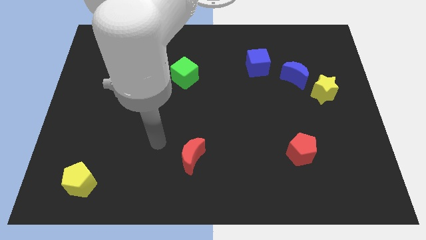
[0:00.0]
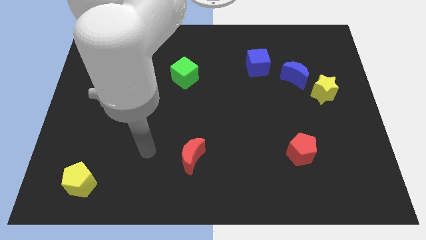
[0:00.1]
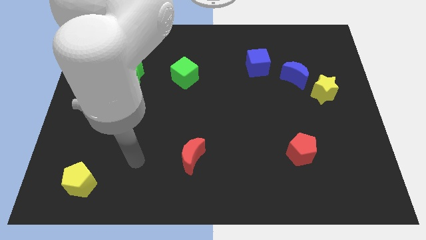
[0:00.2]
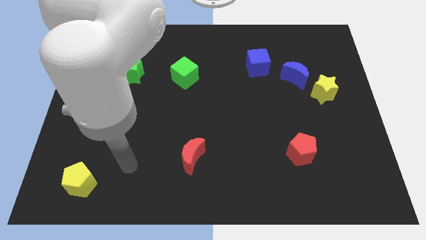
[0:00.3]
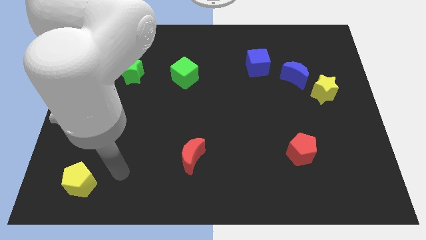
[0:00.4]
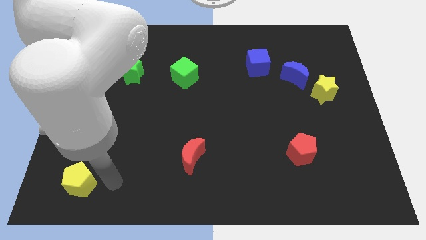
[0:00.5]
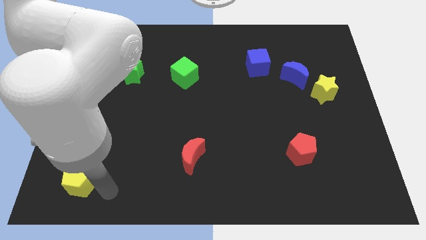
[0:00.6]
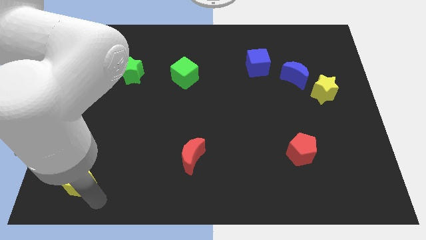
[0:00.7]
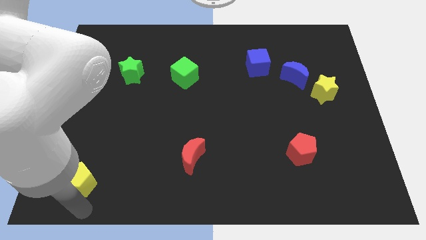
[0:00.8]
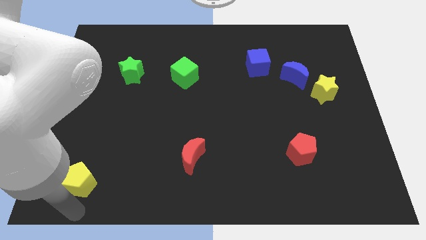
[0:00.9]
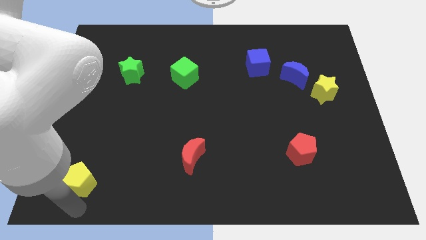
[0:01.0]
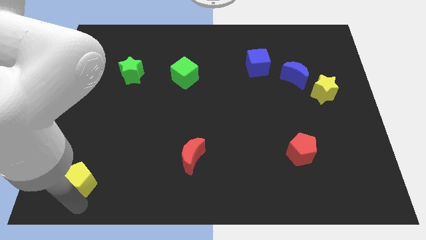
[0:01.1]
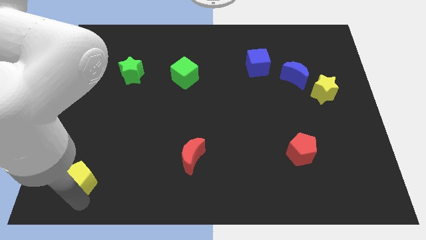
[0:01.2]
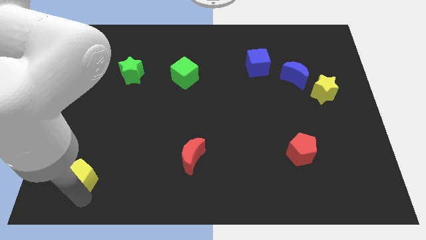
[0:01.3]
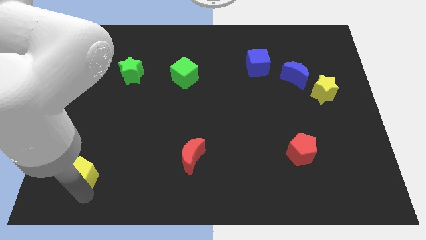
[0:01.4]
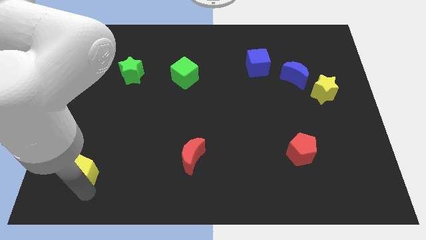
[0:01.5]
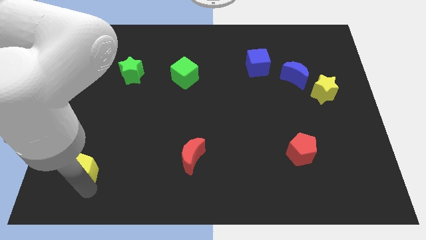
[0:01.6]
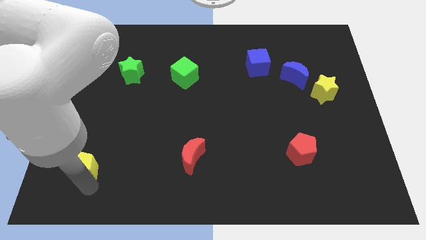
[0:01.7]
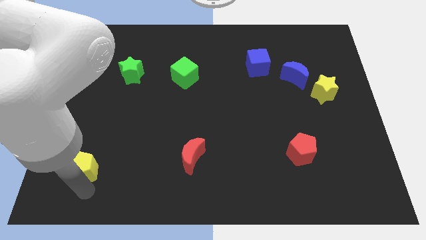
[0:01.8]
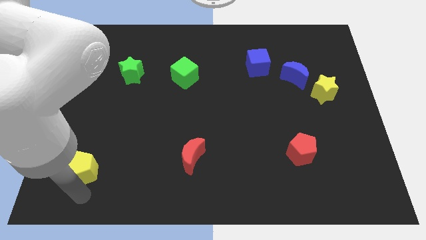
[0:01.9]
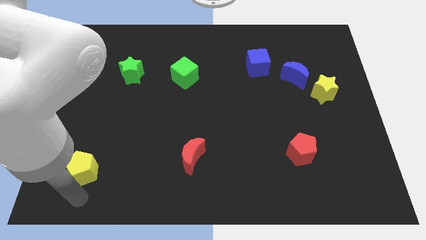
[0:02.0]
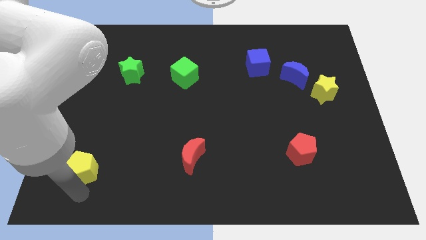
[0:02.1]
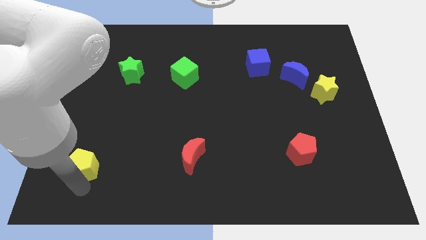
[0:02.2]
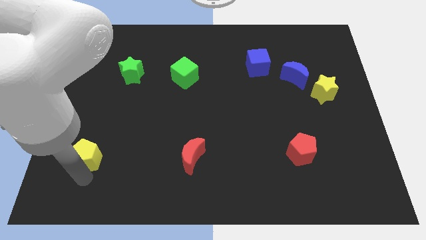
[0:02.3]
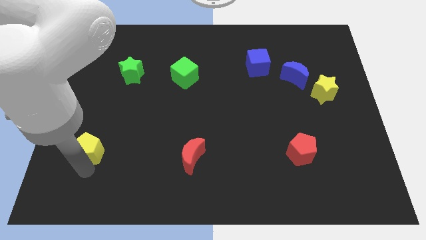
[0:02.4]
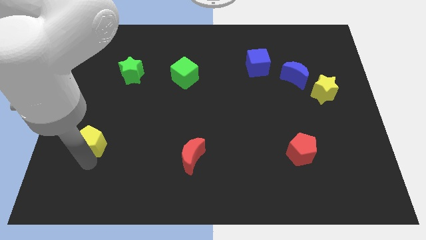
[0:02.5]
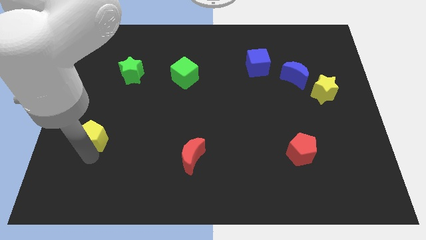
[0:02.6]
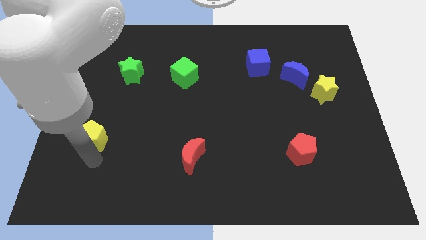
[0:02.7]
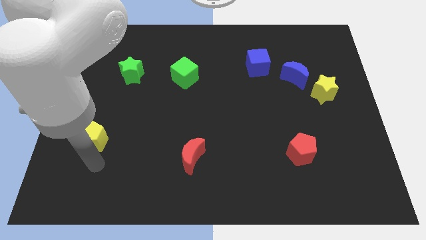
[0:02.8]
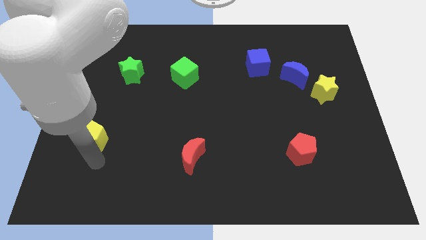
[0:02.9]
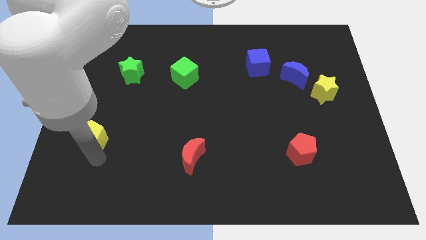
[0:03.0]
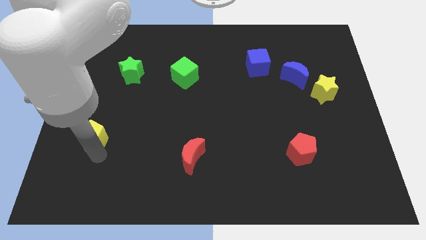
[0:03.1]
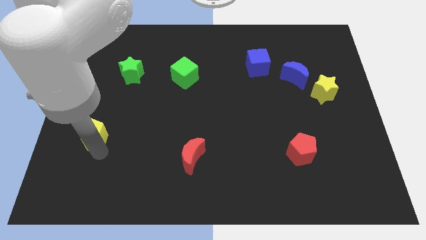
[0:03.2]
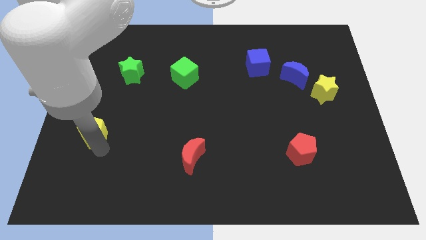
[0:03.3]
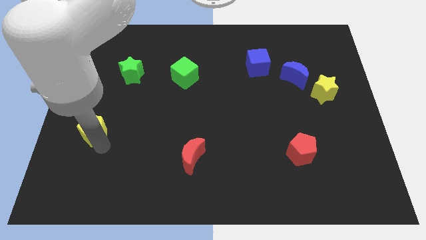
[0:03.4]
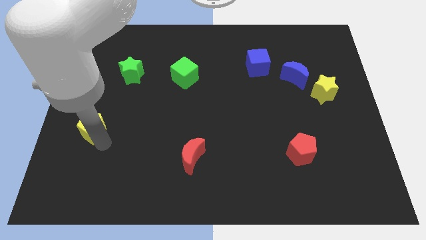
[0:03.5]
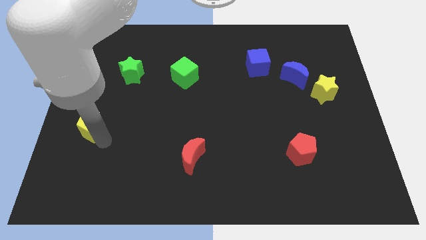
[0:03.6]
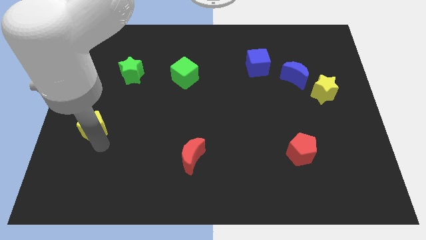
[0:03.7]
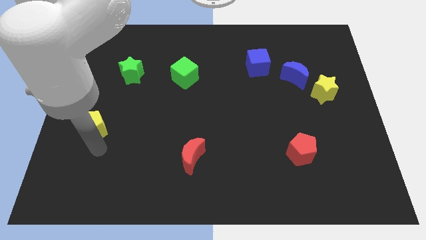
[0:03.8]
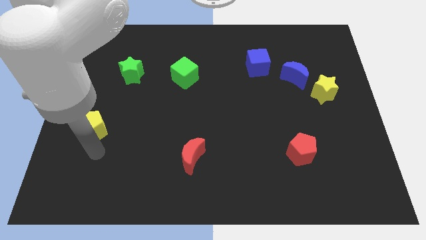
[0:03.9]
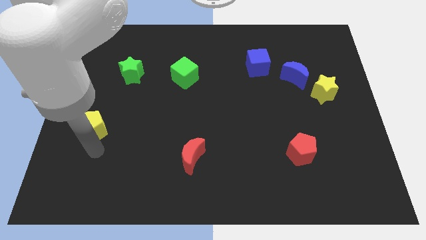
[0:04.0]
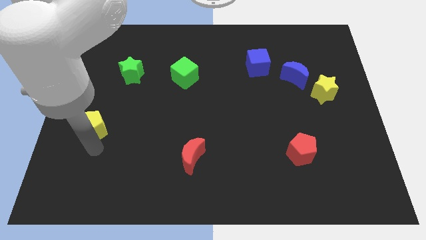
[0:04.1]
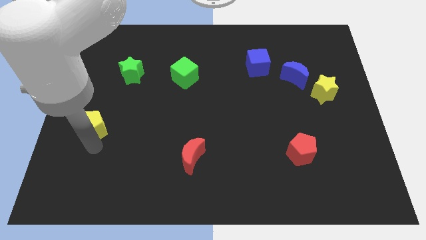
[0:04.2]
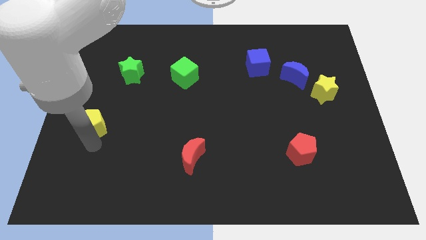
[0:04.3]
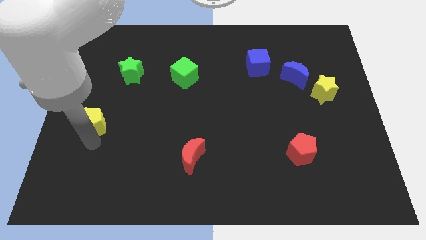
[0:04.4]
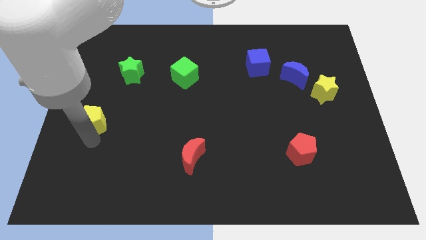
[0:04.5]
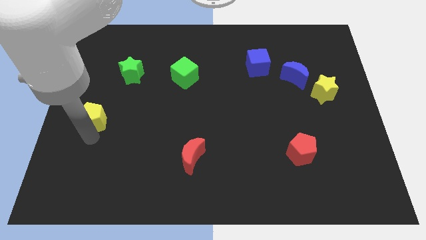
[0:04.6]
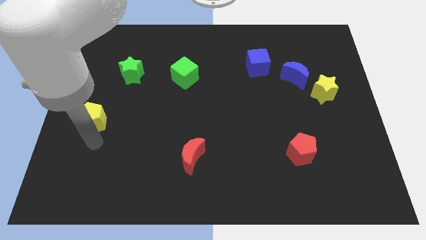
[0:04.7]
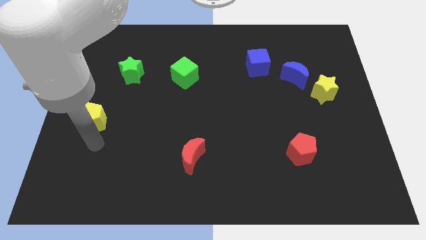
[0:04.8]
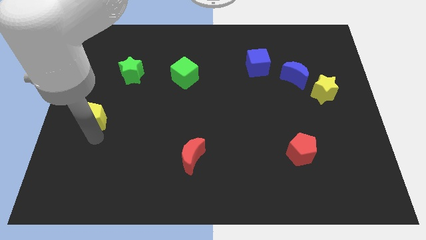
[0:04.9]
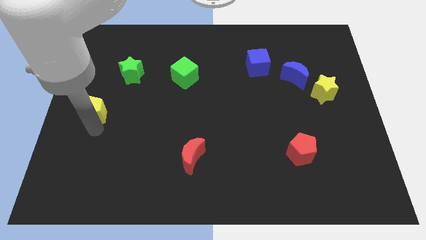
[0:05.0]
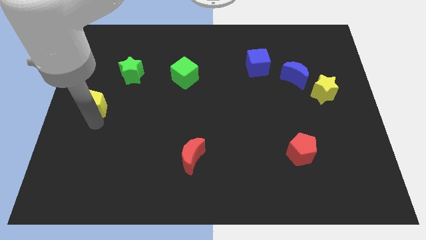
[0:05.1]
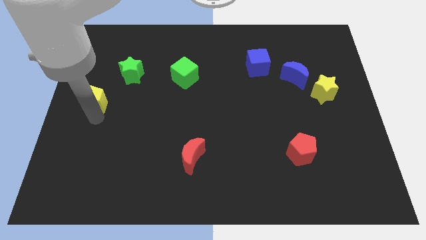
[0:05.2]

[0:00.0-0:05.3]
move the yellow pentagon upwards

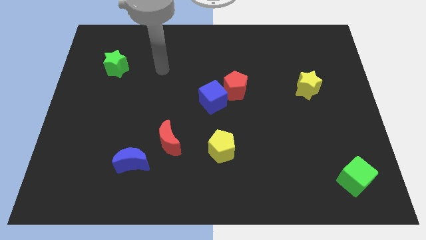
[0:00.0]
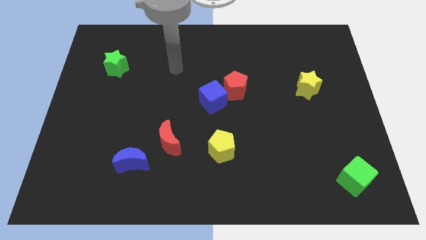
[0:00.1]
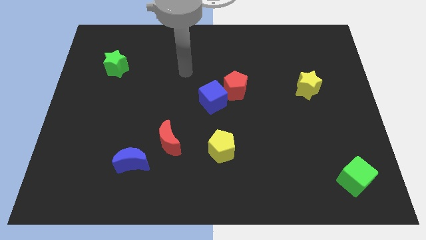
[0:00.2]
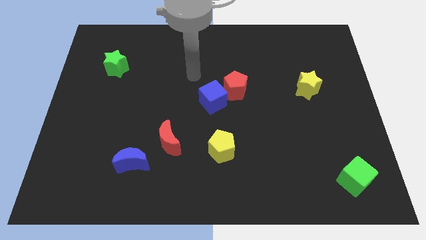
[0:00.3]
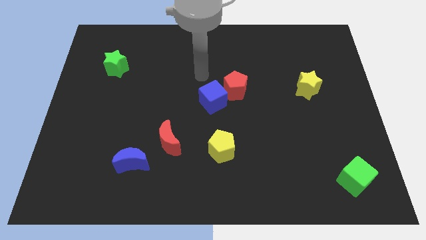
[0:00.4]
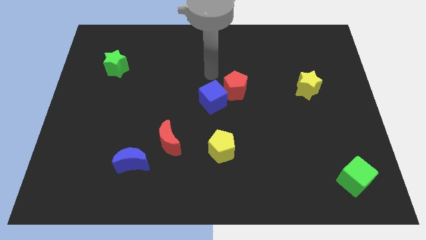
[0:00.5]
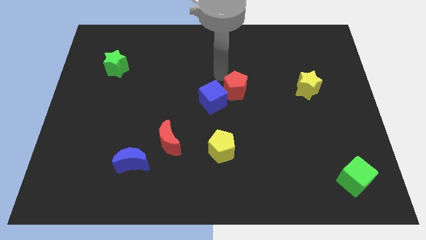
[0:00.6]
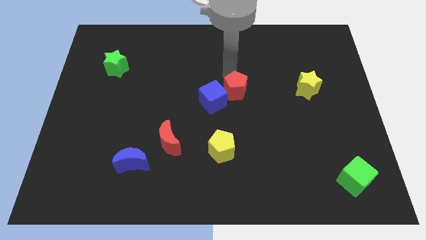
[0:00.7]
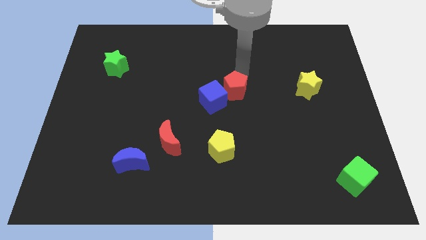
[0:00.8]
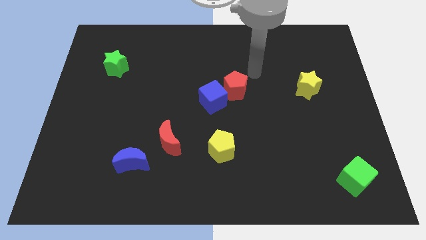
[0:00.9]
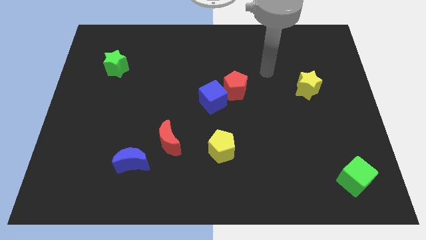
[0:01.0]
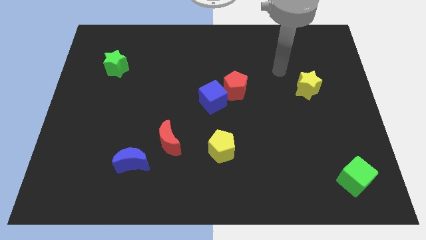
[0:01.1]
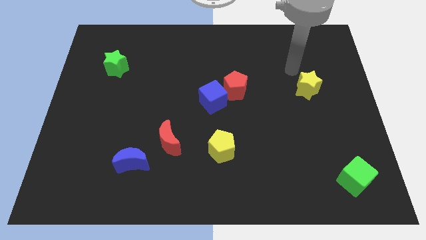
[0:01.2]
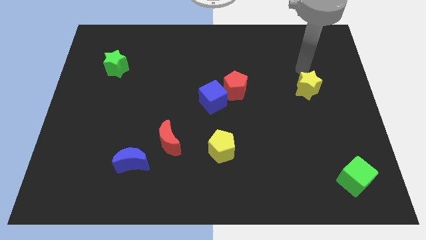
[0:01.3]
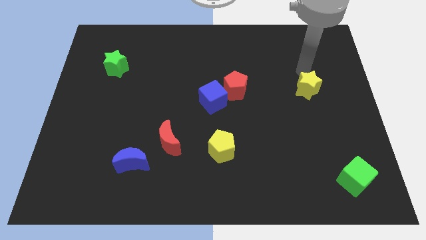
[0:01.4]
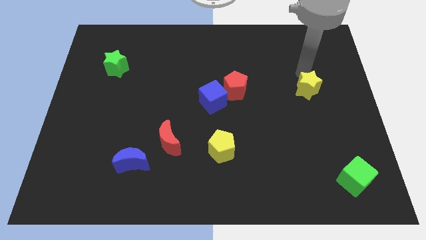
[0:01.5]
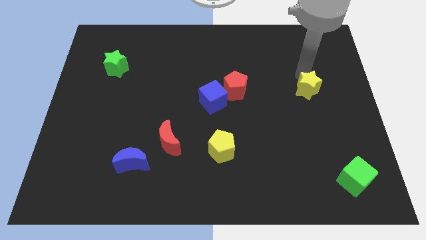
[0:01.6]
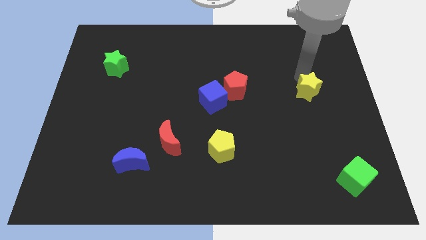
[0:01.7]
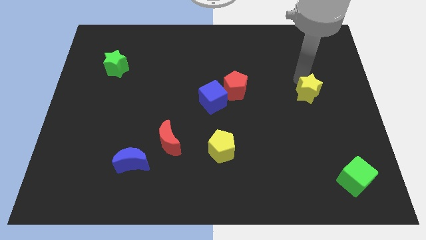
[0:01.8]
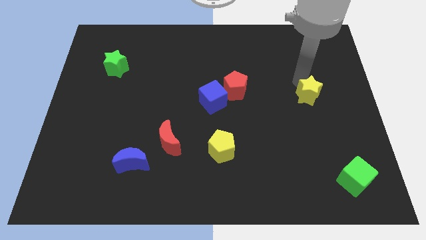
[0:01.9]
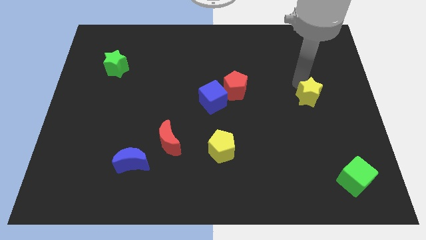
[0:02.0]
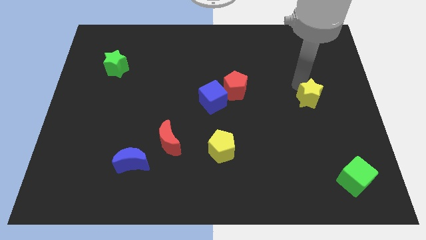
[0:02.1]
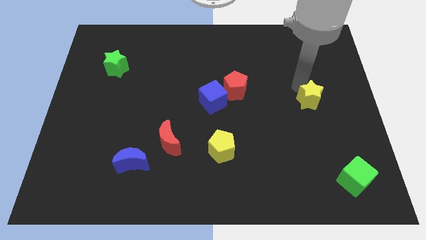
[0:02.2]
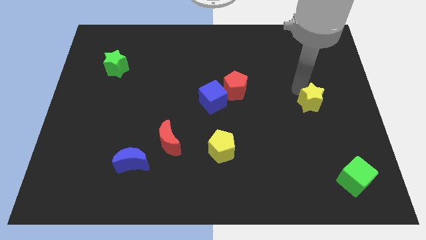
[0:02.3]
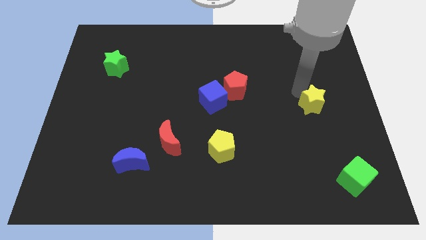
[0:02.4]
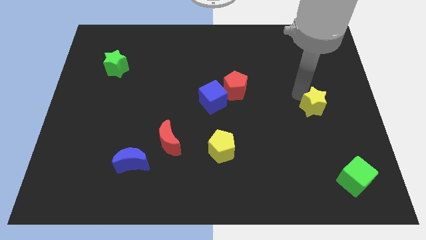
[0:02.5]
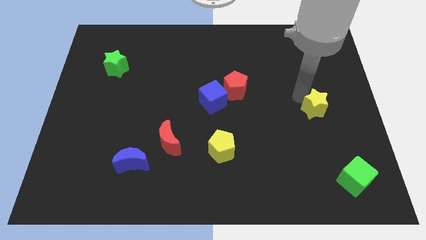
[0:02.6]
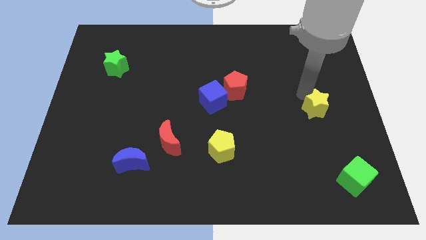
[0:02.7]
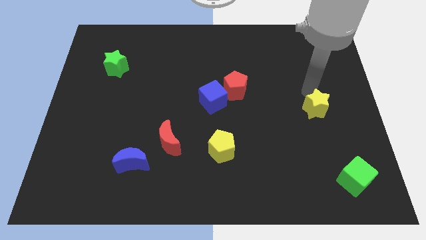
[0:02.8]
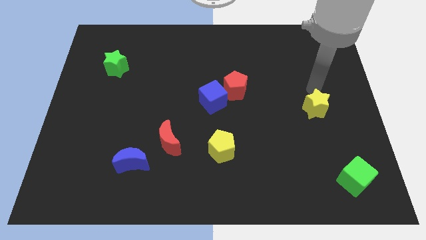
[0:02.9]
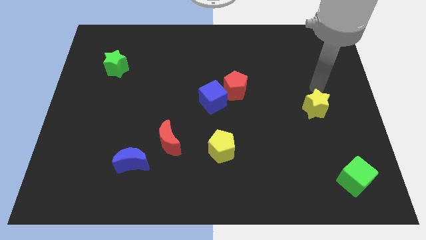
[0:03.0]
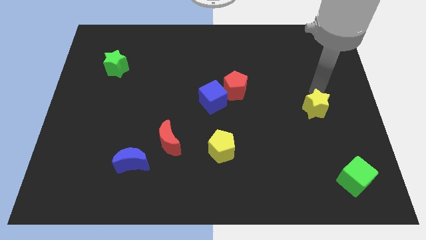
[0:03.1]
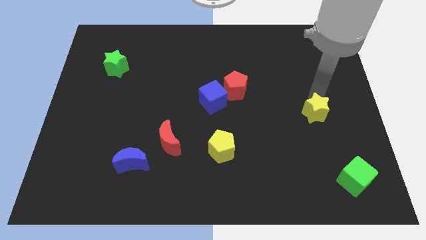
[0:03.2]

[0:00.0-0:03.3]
slightly move the yellow star down
